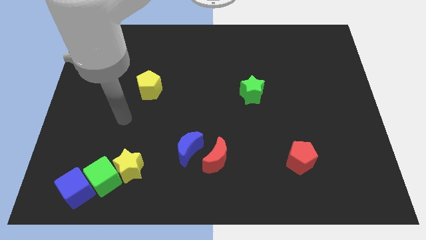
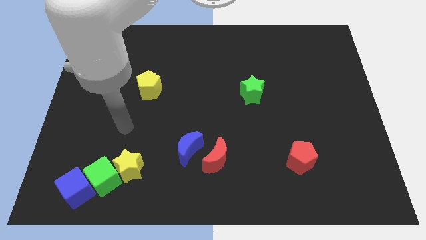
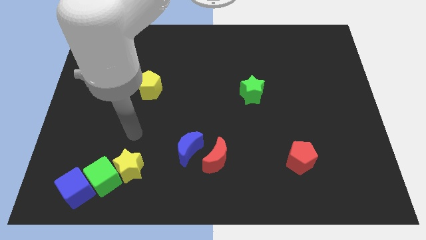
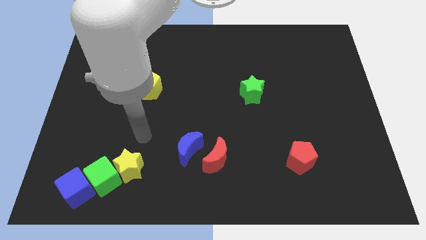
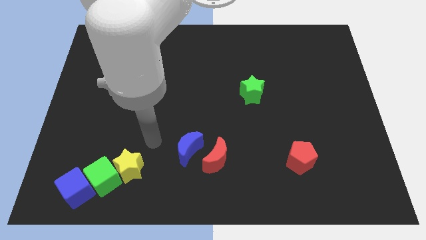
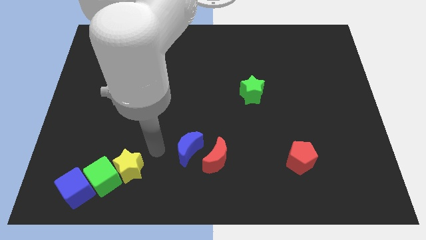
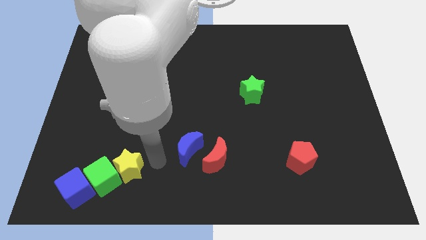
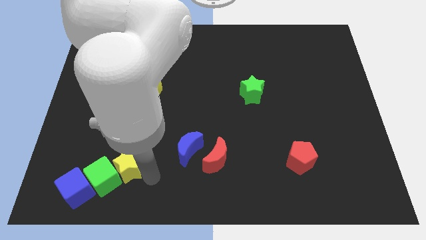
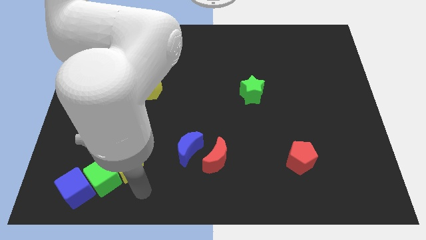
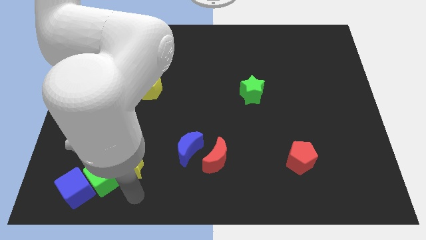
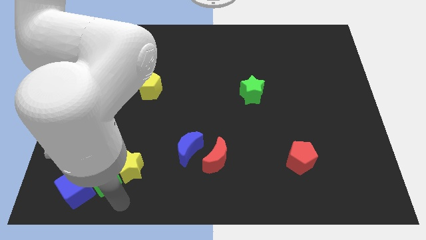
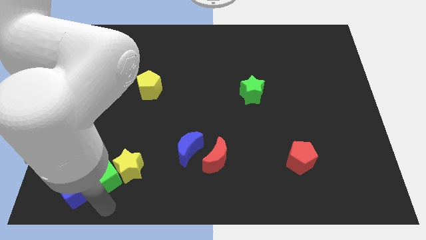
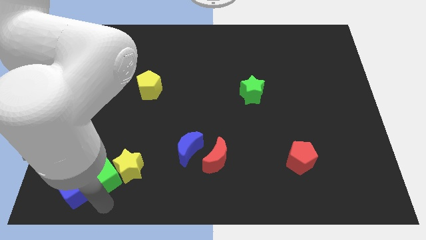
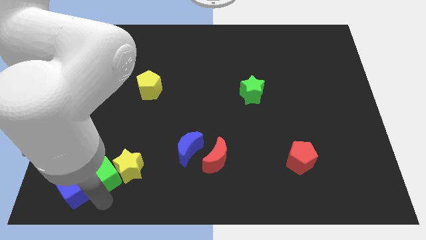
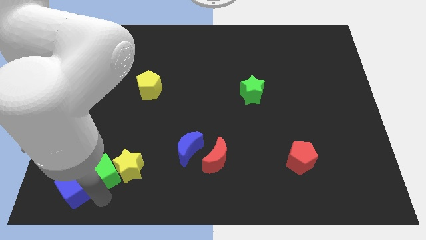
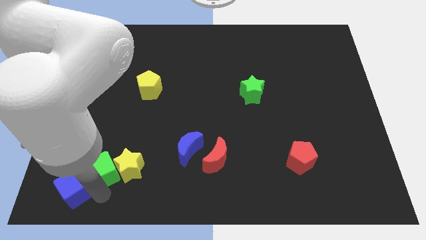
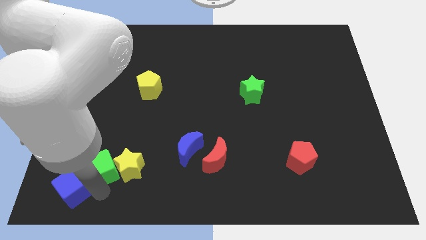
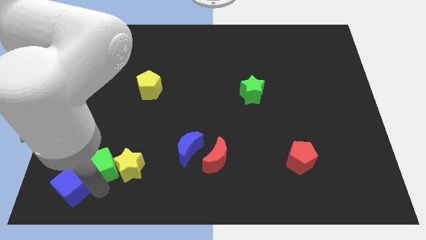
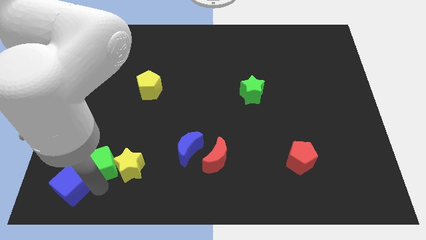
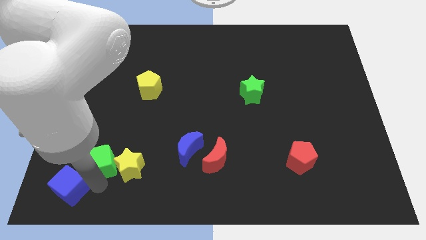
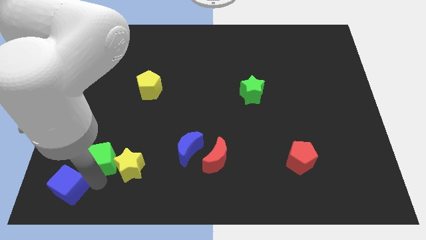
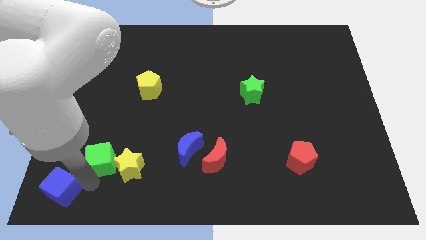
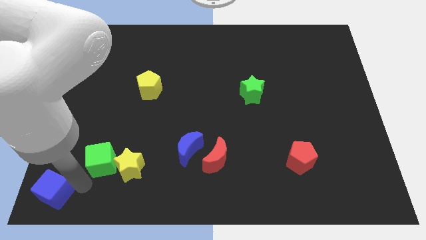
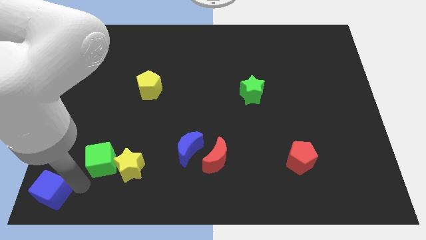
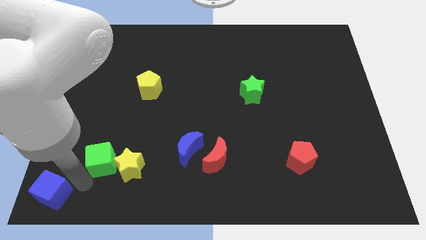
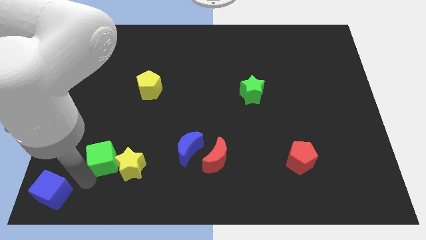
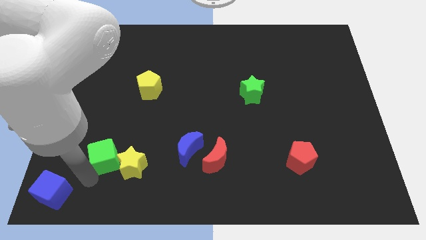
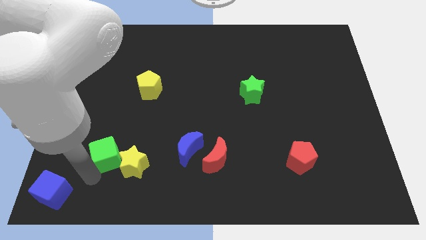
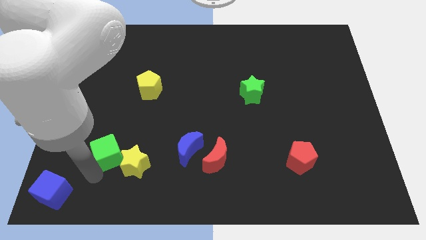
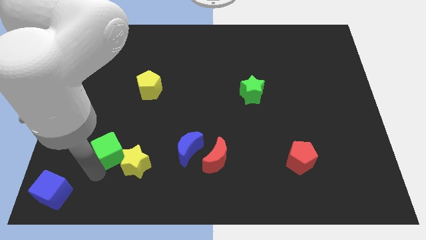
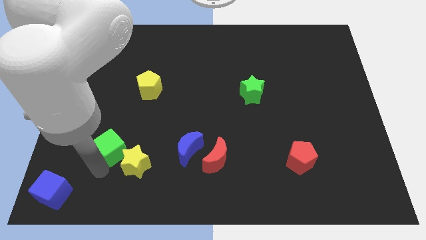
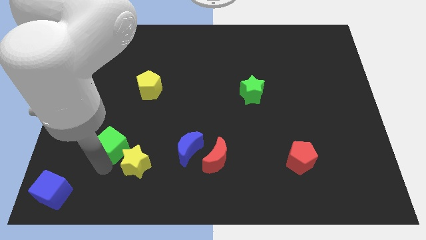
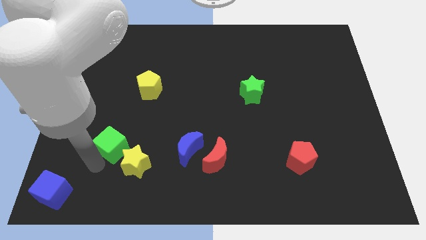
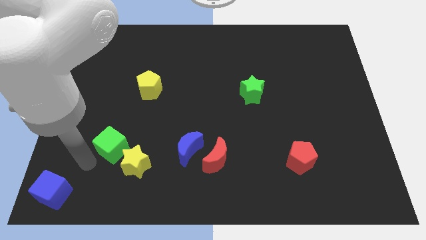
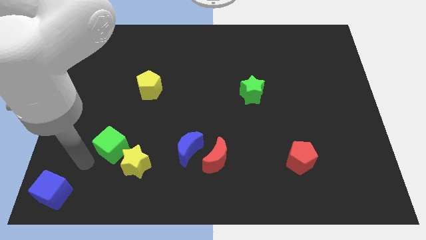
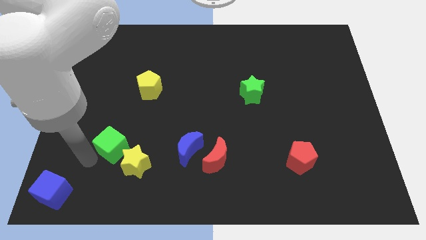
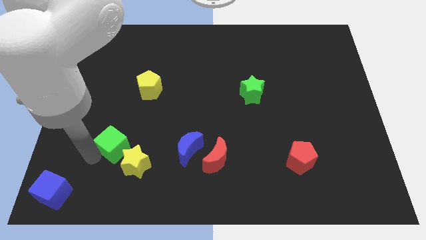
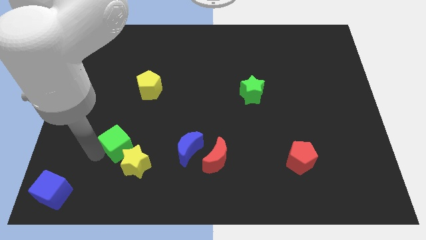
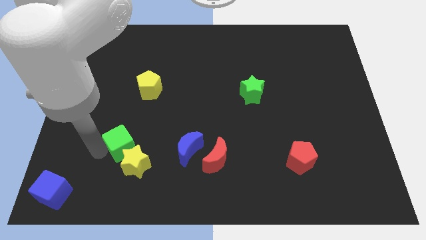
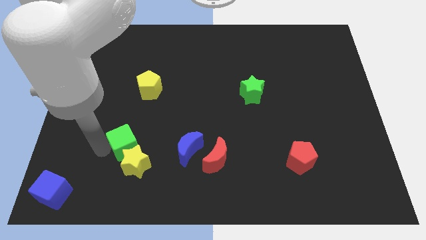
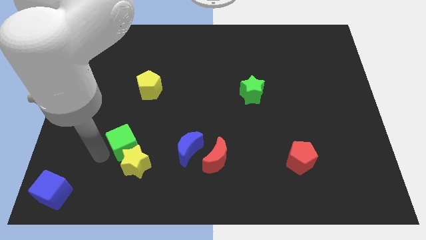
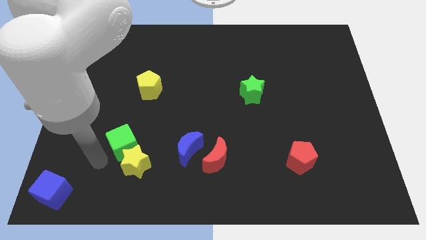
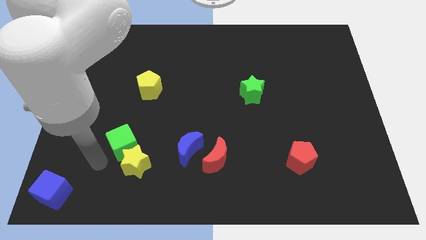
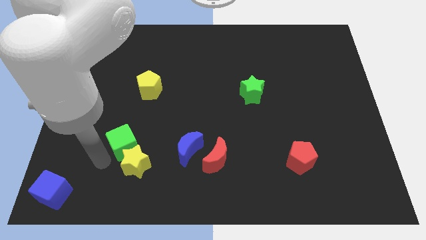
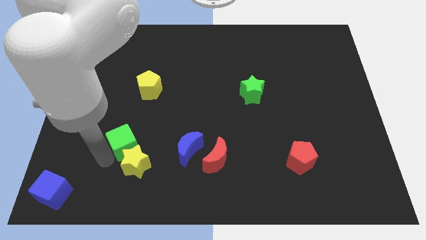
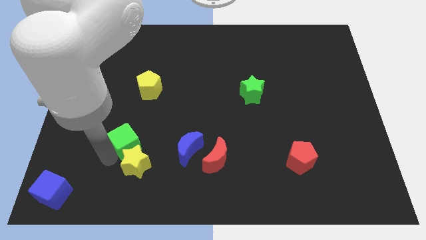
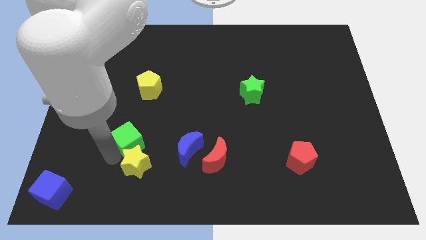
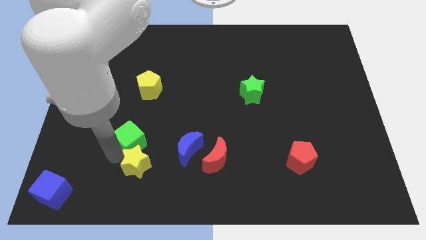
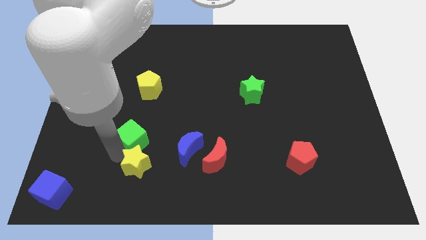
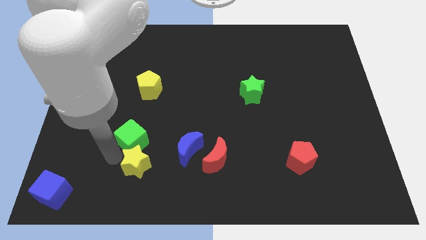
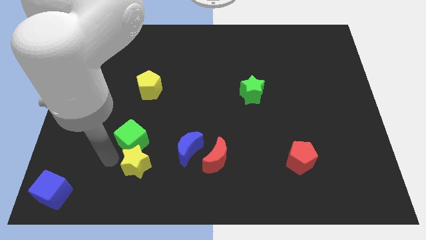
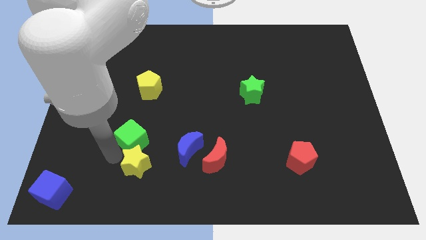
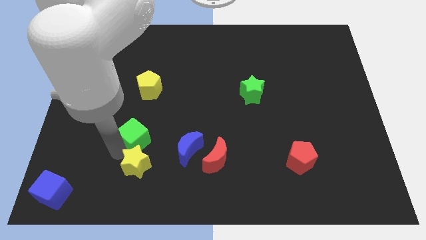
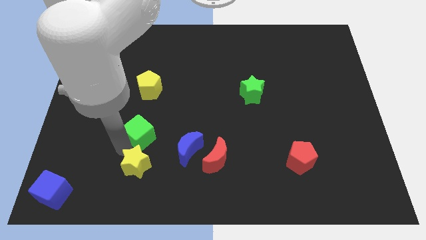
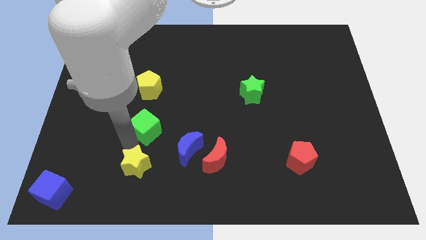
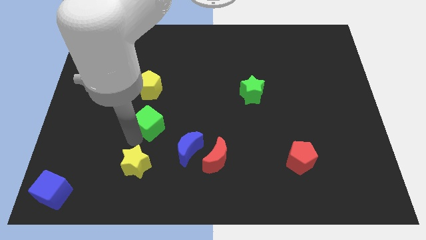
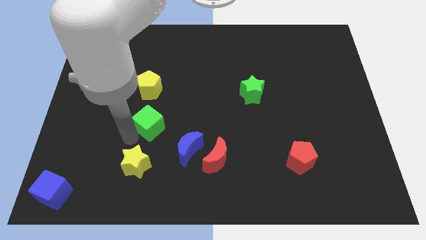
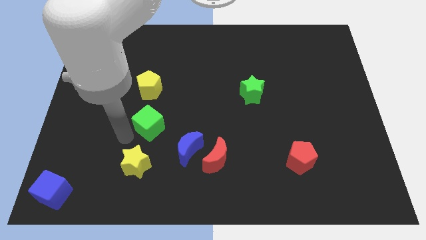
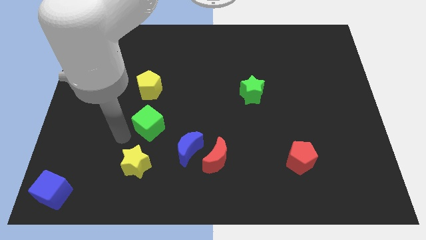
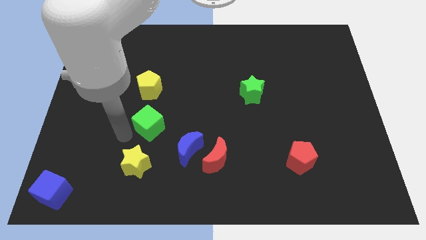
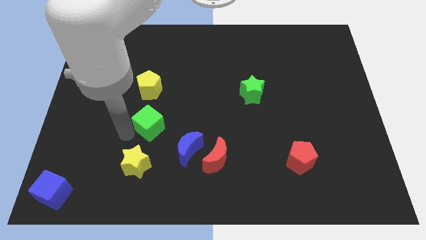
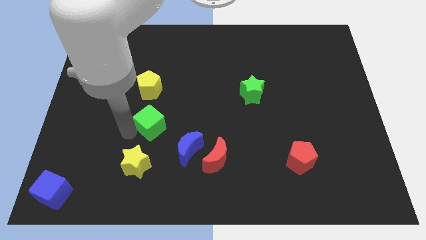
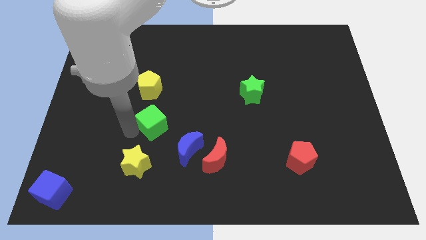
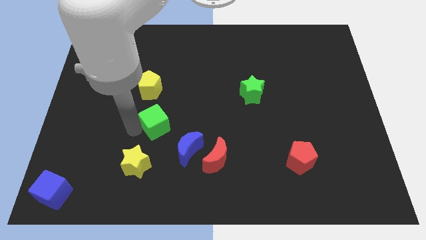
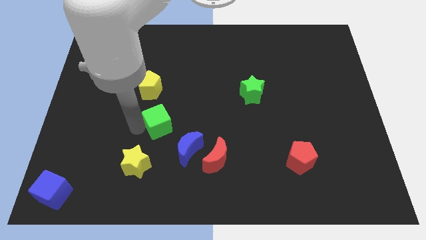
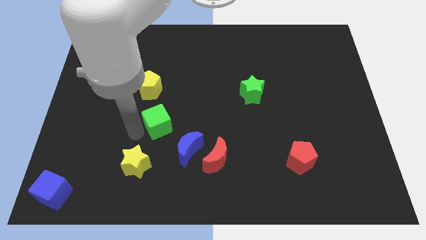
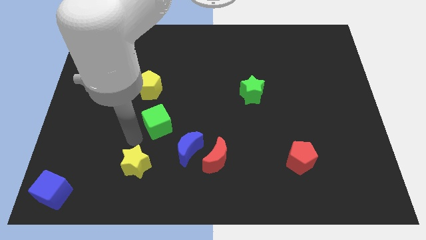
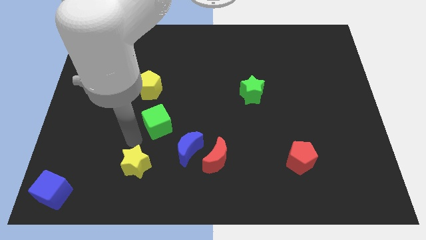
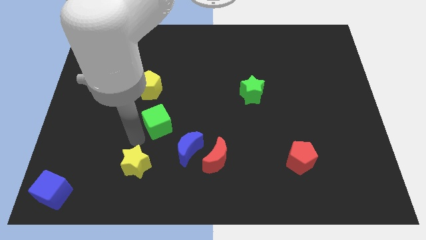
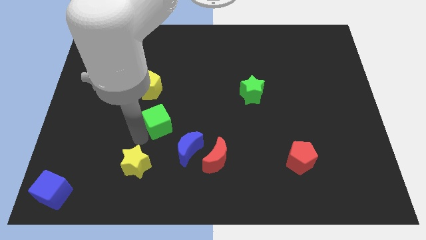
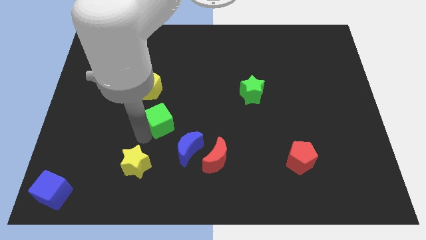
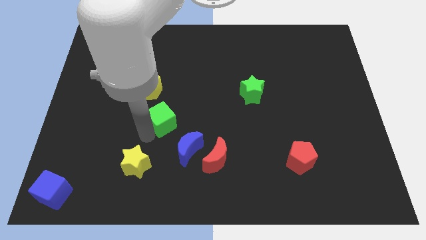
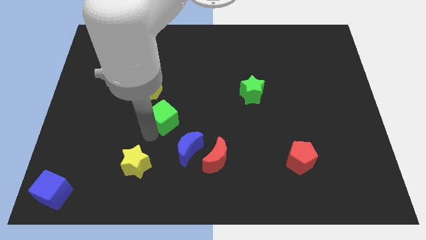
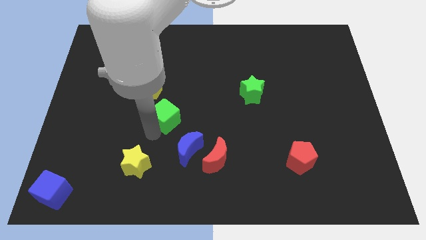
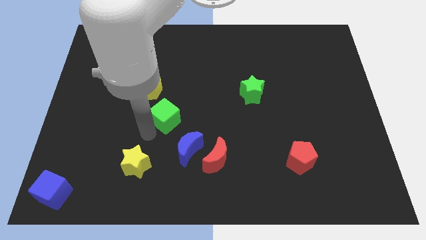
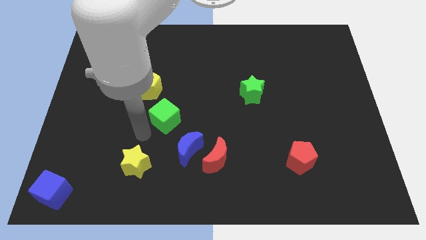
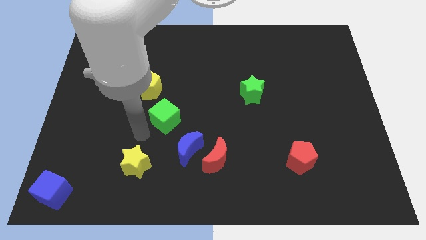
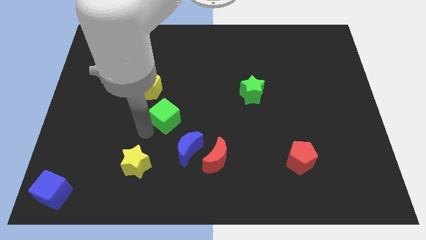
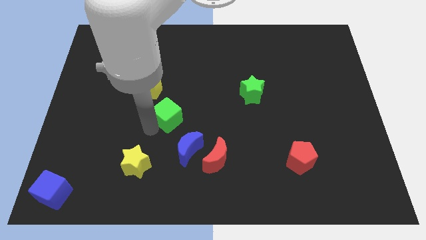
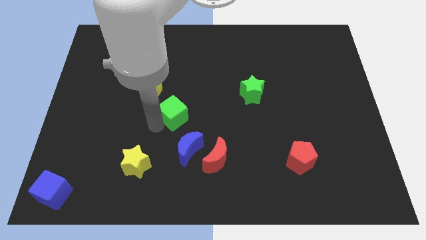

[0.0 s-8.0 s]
move the green cube up and then to the right

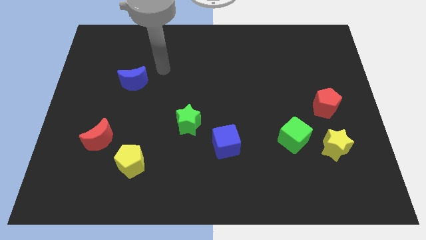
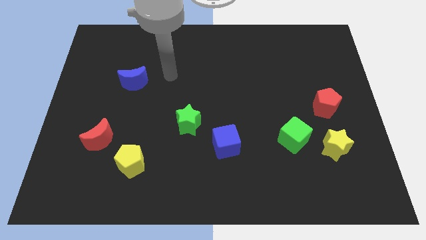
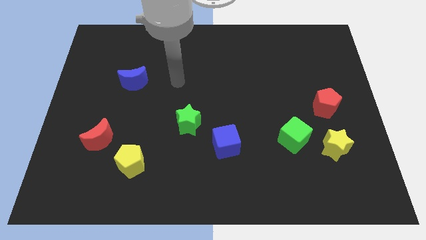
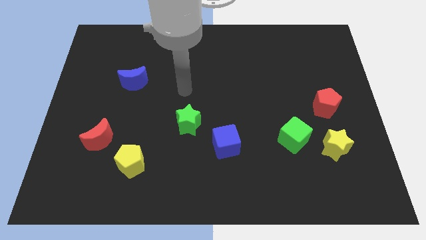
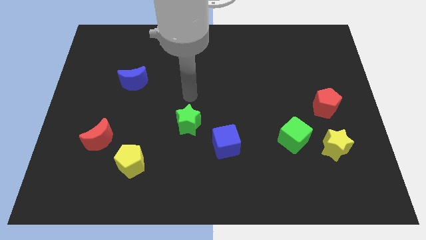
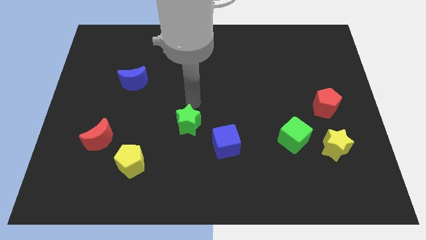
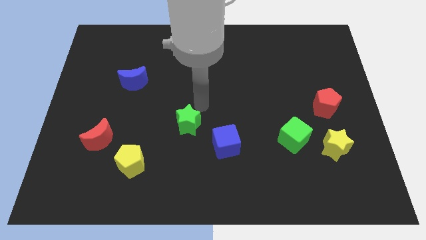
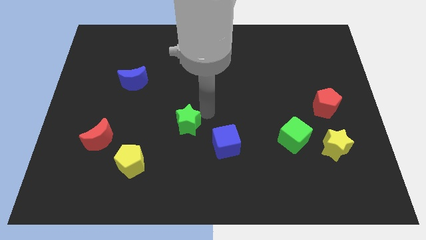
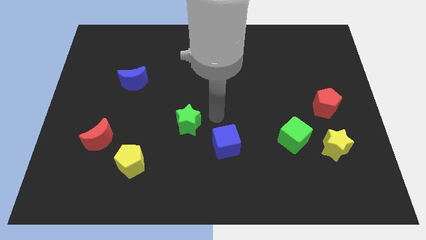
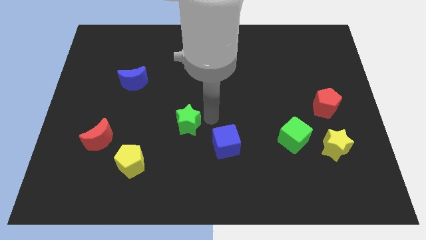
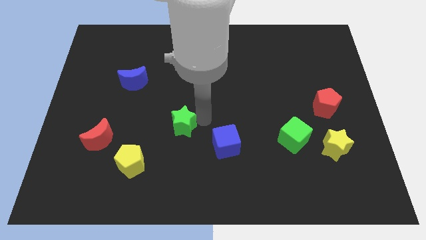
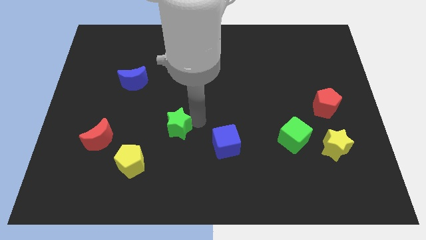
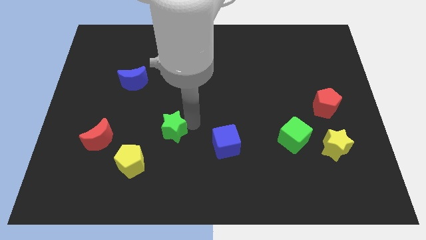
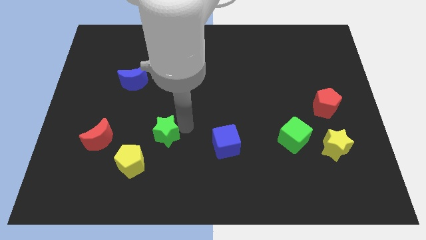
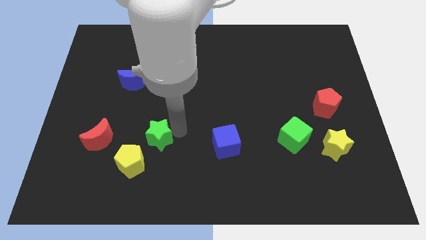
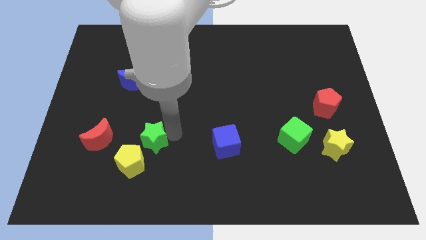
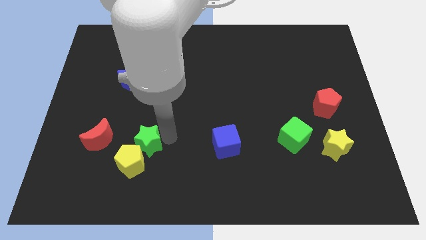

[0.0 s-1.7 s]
slide the green star left slightly
